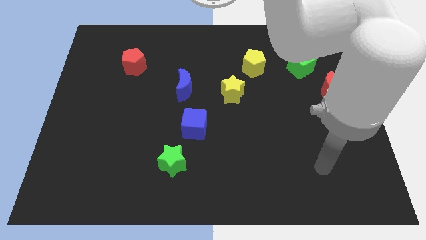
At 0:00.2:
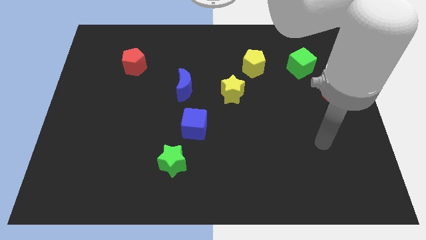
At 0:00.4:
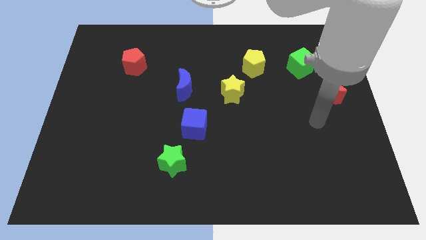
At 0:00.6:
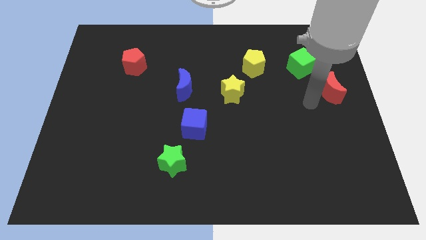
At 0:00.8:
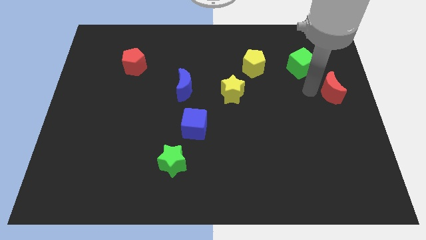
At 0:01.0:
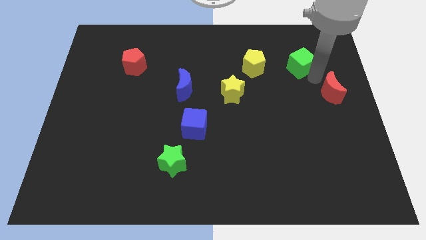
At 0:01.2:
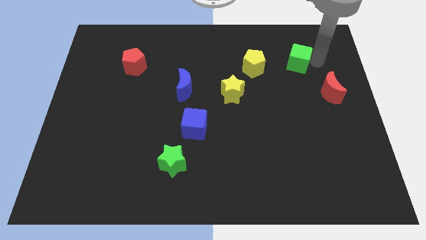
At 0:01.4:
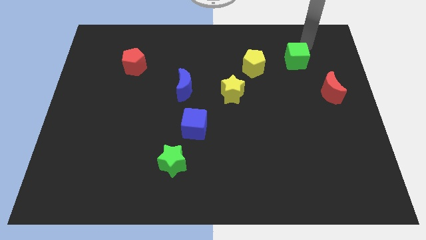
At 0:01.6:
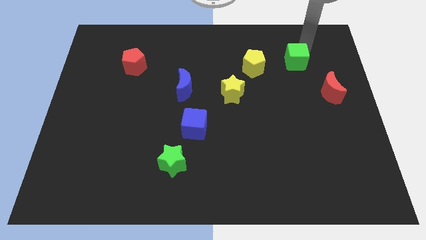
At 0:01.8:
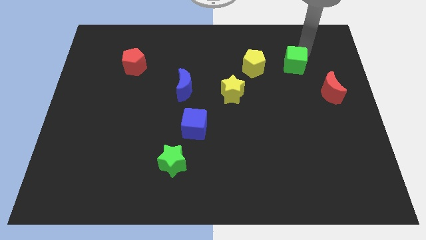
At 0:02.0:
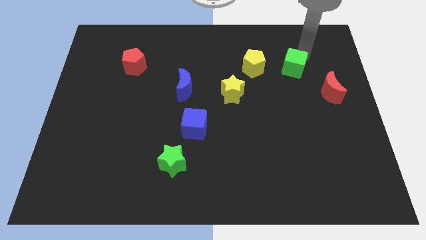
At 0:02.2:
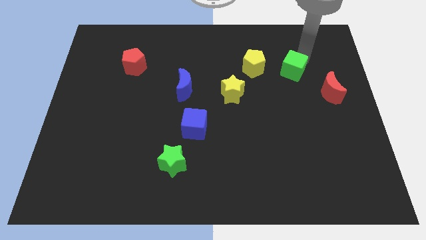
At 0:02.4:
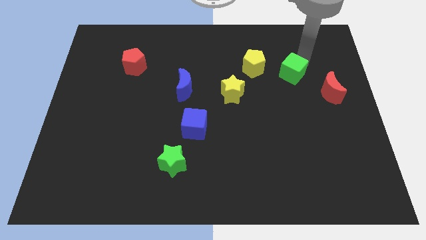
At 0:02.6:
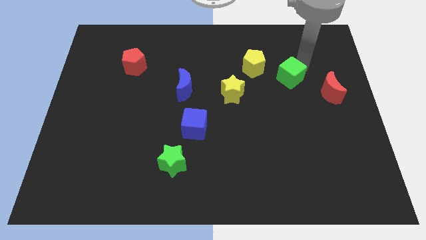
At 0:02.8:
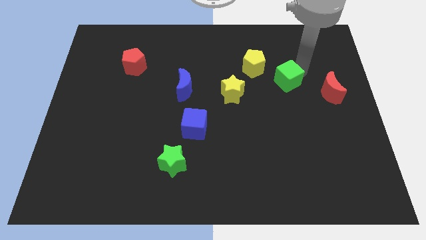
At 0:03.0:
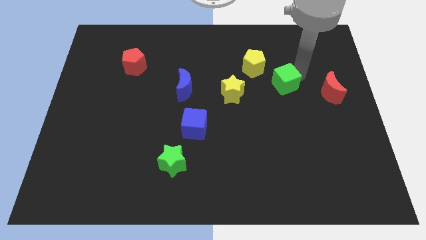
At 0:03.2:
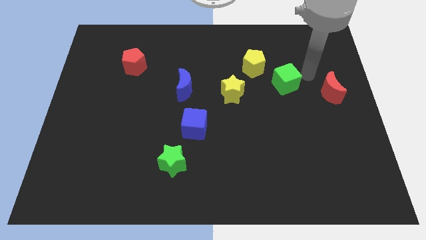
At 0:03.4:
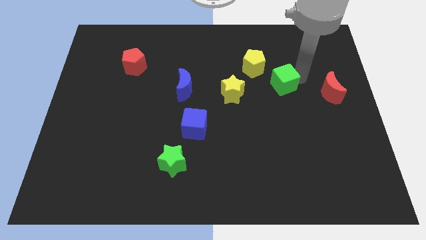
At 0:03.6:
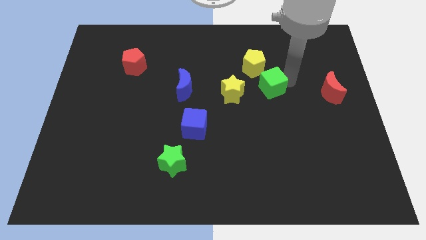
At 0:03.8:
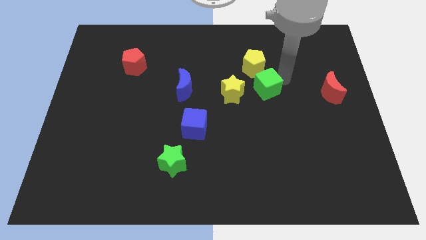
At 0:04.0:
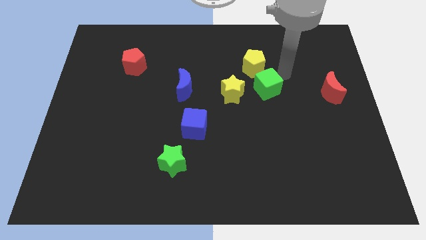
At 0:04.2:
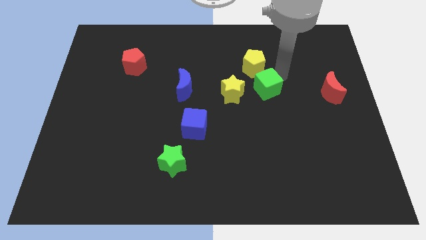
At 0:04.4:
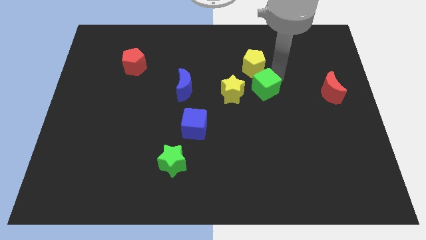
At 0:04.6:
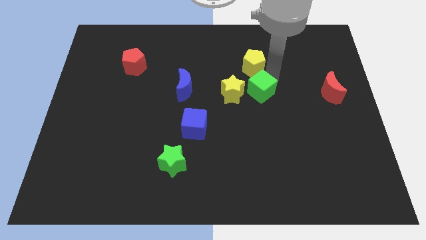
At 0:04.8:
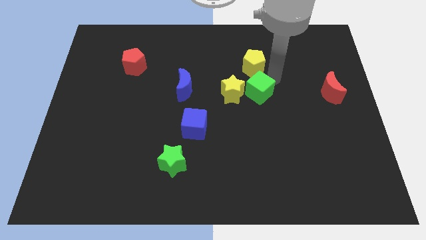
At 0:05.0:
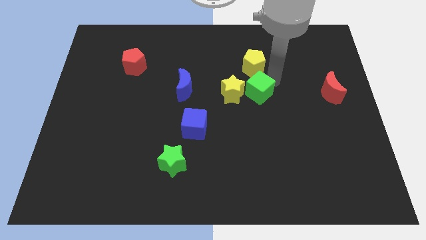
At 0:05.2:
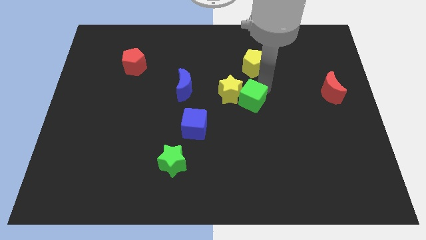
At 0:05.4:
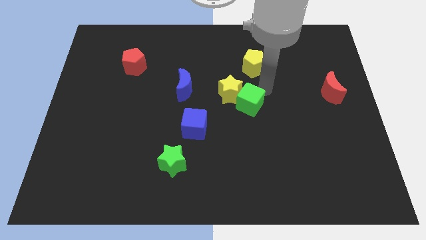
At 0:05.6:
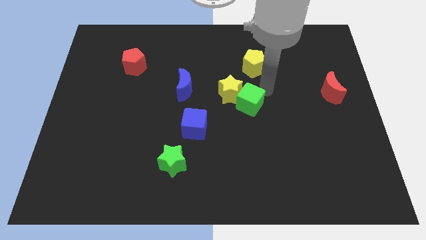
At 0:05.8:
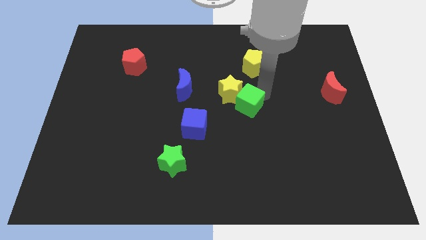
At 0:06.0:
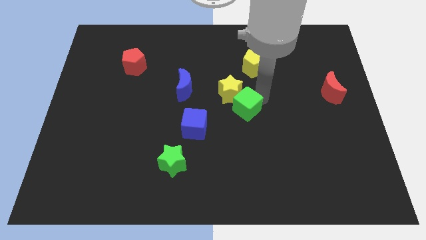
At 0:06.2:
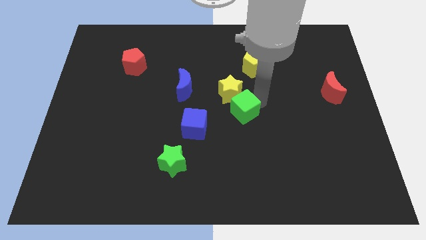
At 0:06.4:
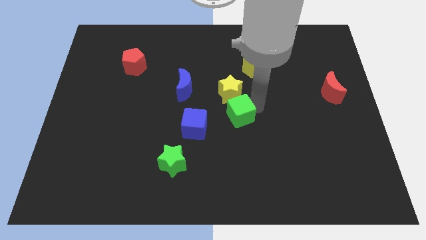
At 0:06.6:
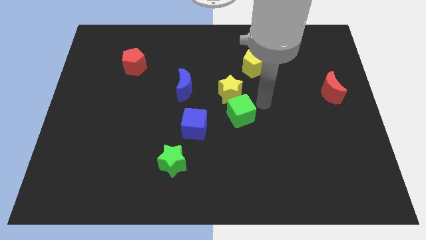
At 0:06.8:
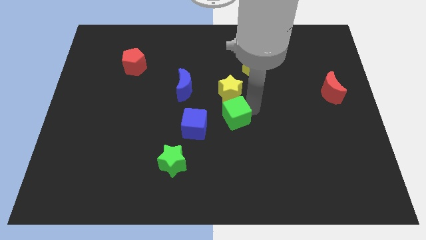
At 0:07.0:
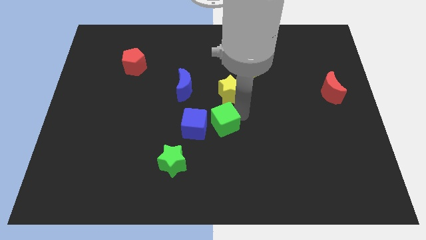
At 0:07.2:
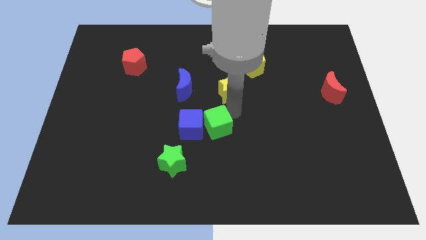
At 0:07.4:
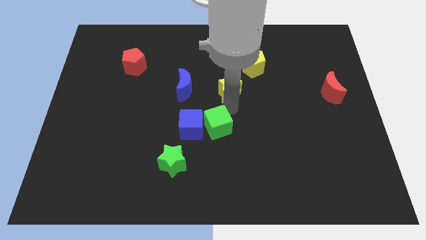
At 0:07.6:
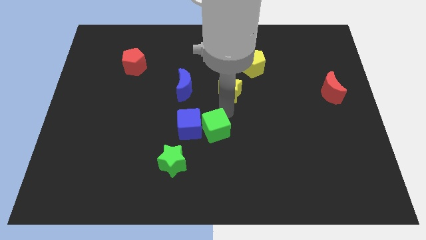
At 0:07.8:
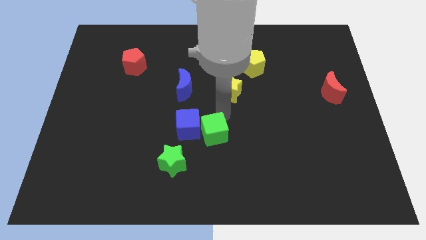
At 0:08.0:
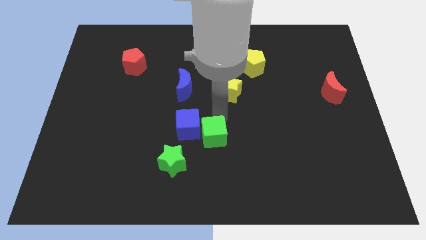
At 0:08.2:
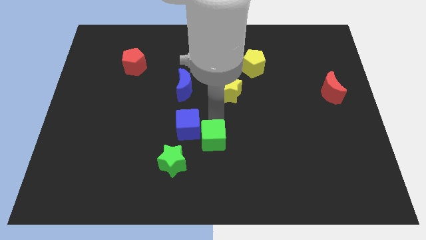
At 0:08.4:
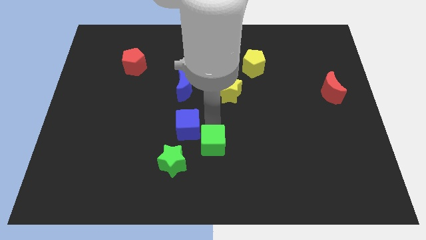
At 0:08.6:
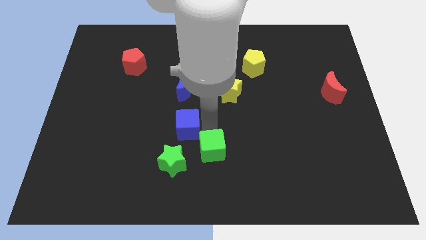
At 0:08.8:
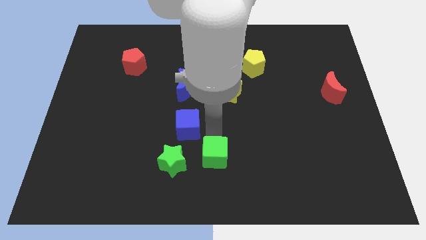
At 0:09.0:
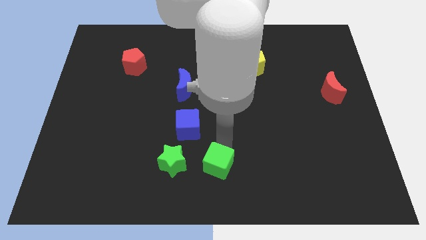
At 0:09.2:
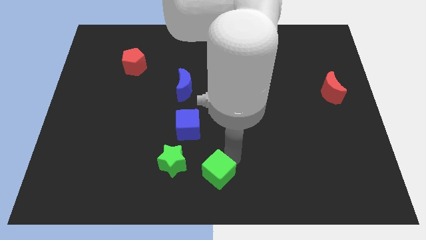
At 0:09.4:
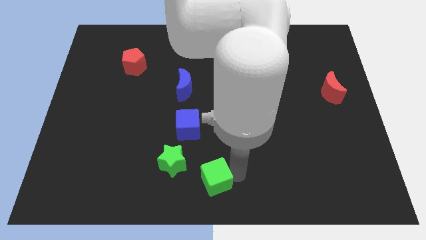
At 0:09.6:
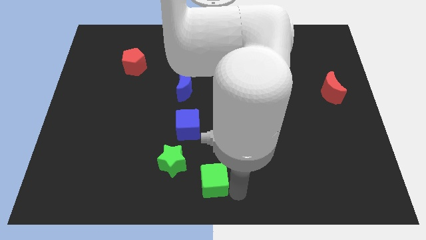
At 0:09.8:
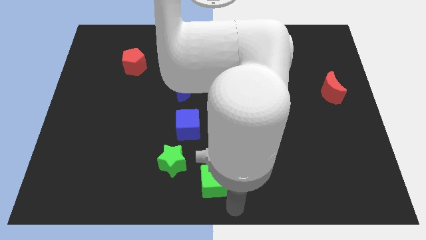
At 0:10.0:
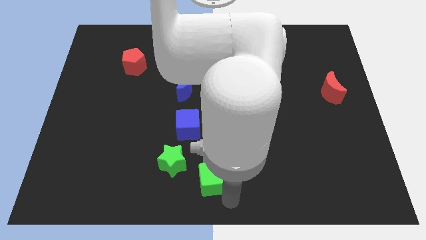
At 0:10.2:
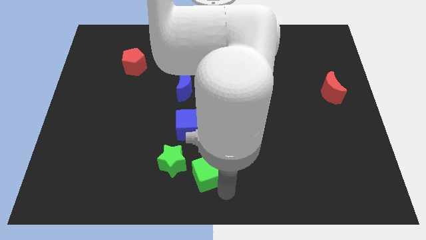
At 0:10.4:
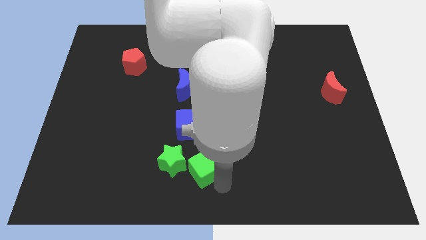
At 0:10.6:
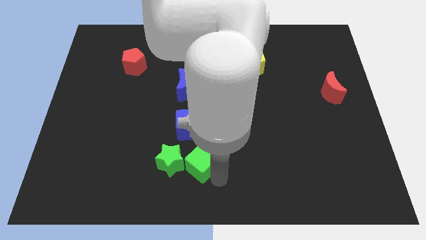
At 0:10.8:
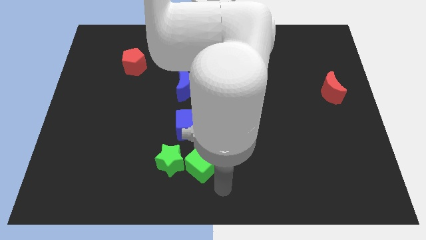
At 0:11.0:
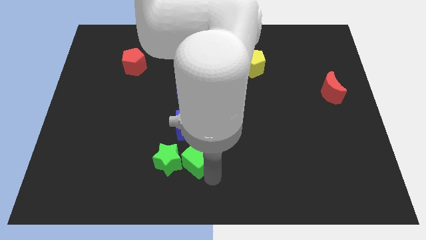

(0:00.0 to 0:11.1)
move the green cube to the green star
